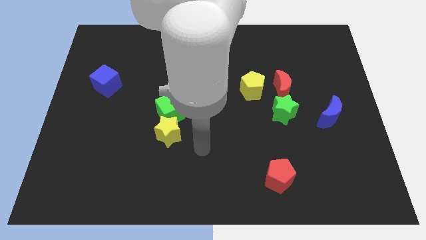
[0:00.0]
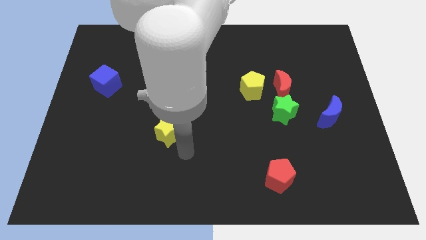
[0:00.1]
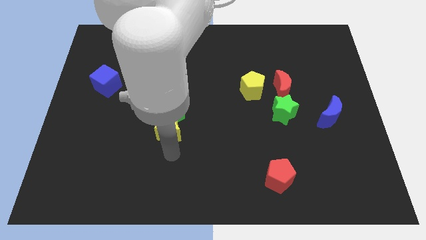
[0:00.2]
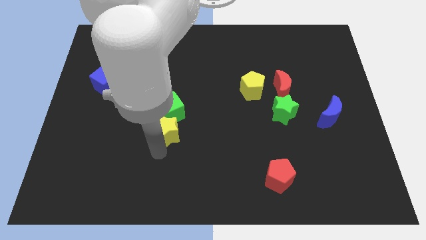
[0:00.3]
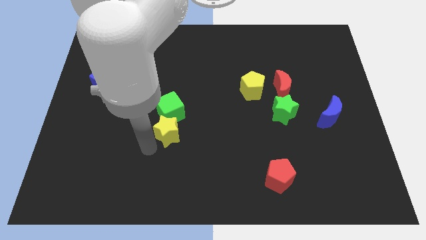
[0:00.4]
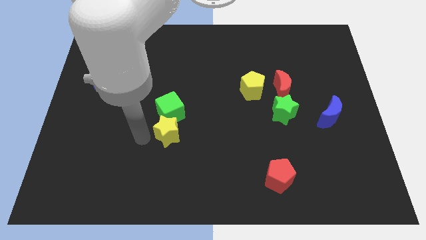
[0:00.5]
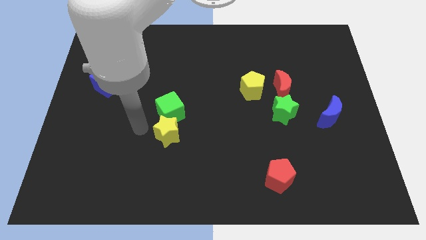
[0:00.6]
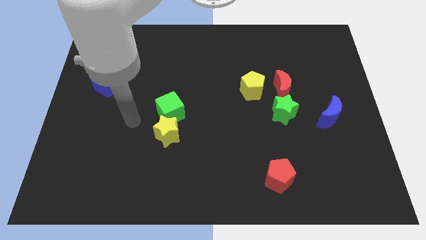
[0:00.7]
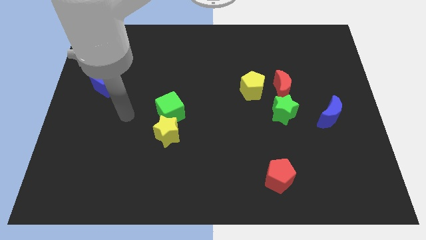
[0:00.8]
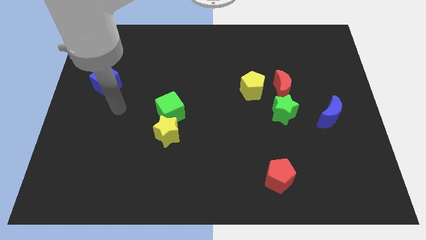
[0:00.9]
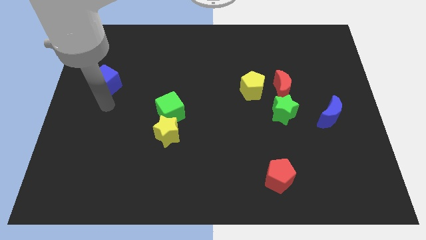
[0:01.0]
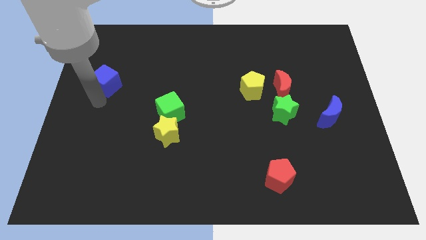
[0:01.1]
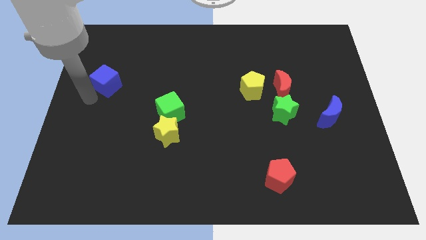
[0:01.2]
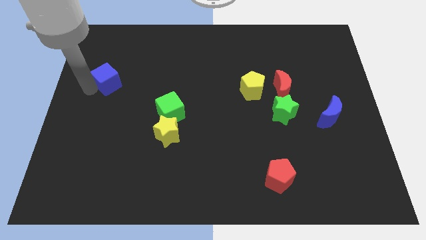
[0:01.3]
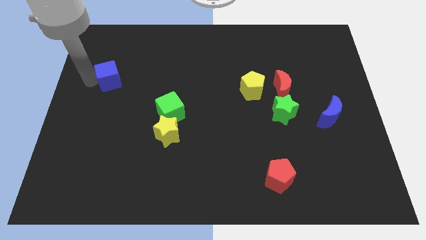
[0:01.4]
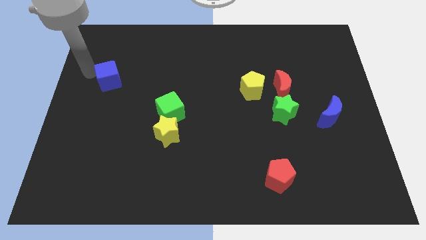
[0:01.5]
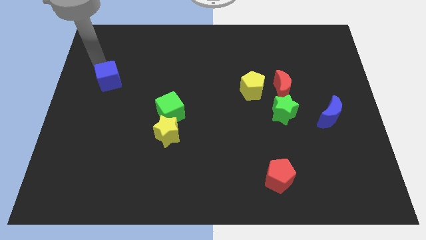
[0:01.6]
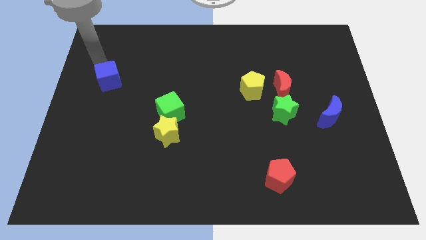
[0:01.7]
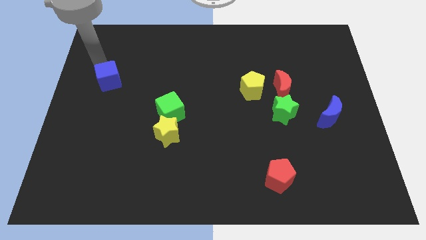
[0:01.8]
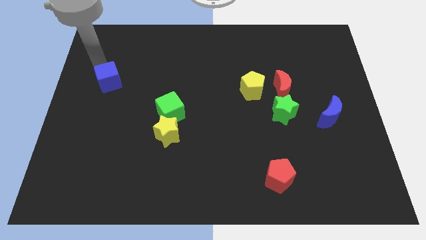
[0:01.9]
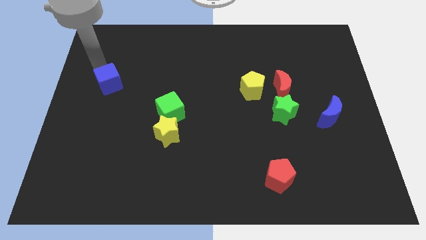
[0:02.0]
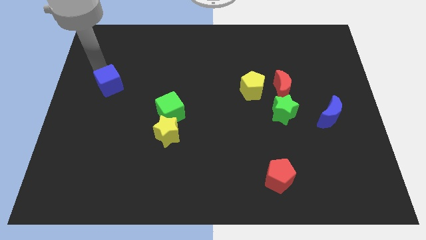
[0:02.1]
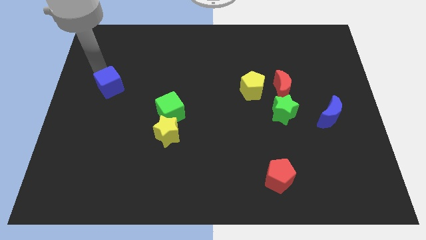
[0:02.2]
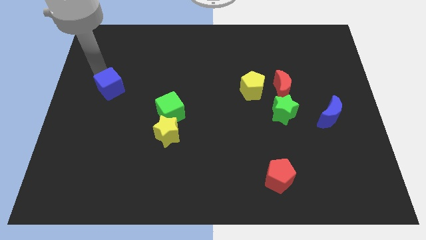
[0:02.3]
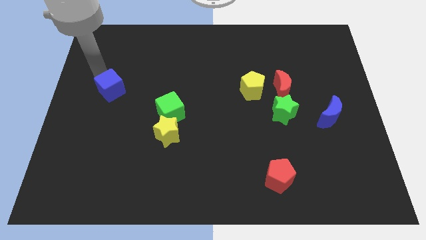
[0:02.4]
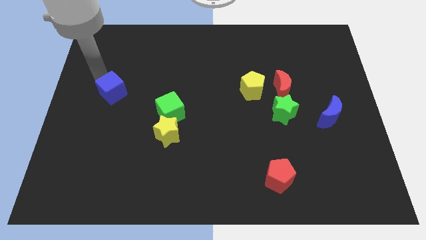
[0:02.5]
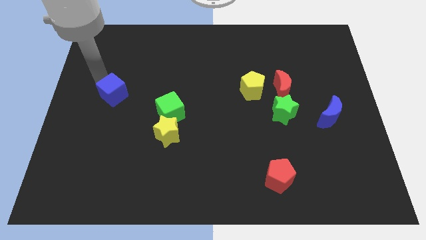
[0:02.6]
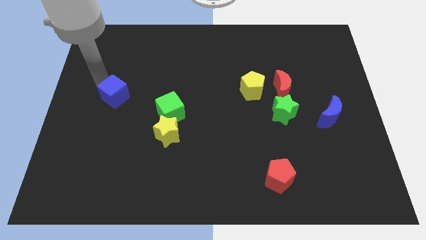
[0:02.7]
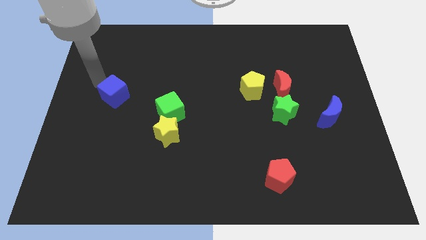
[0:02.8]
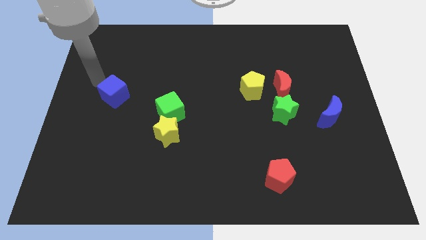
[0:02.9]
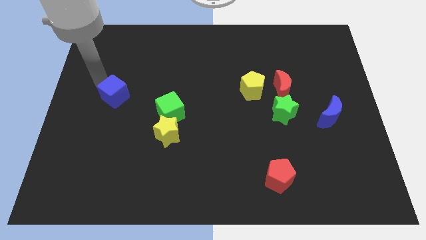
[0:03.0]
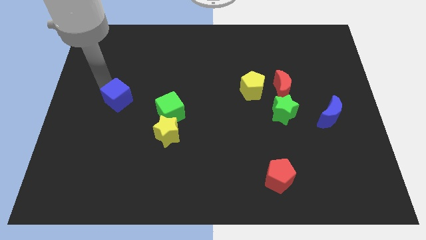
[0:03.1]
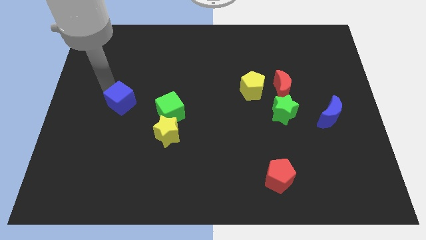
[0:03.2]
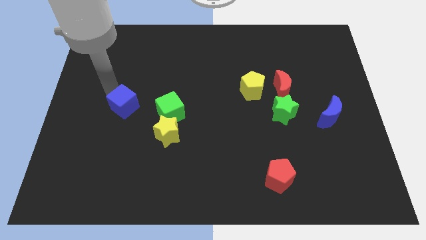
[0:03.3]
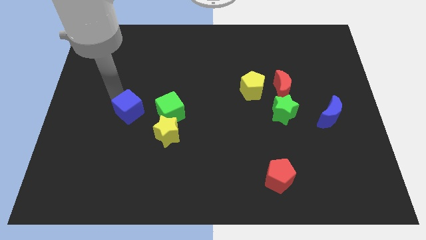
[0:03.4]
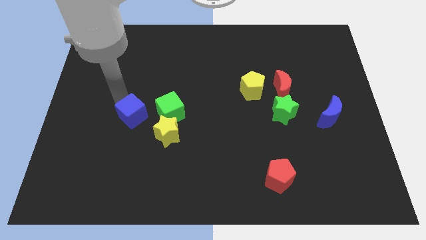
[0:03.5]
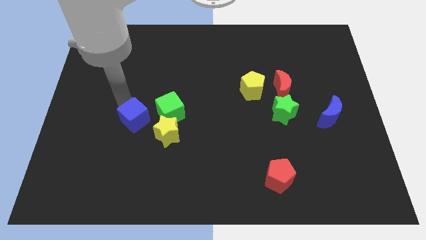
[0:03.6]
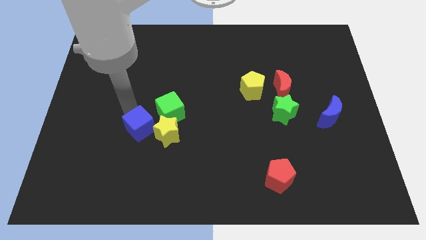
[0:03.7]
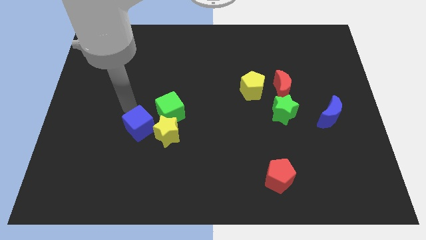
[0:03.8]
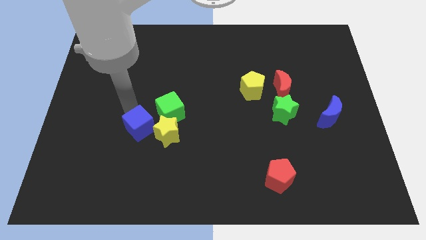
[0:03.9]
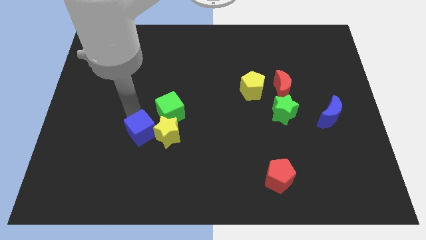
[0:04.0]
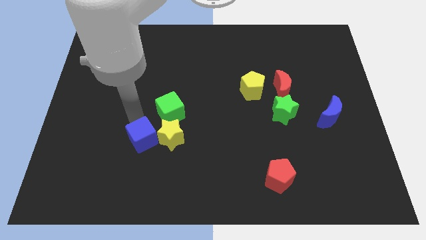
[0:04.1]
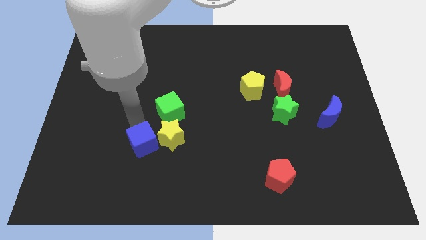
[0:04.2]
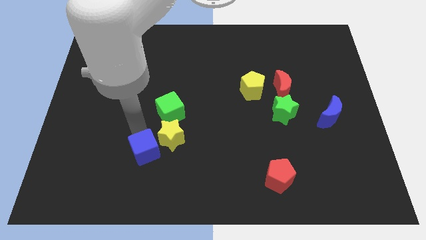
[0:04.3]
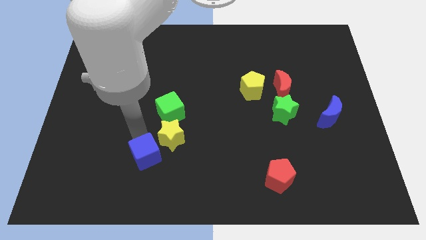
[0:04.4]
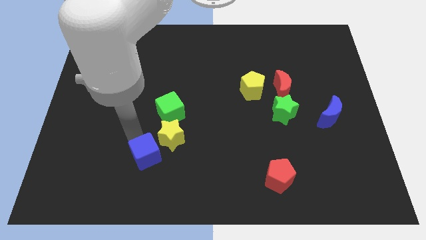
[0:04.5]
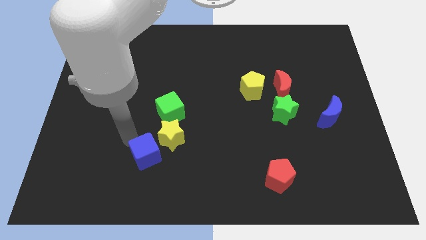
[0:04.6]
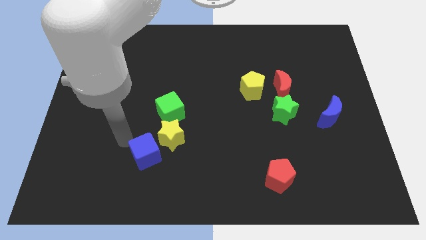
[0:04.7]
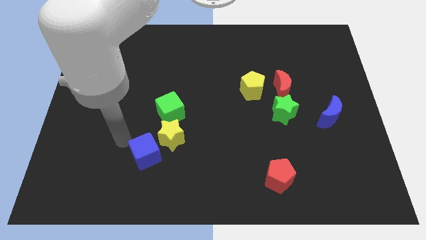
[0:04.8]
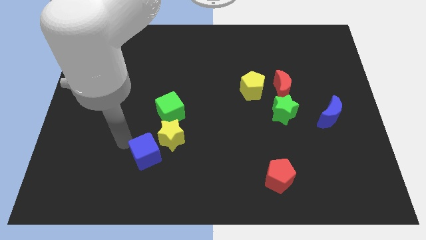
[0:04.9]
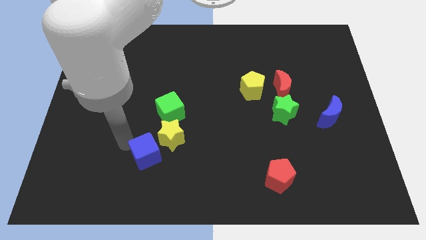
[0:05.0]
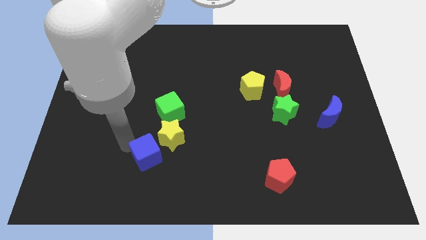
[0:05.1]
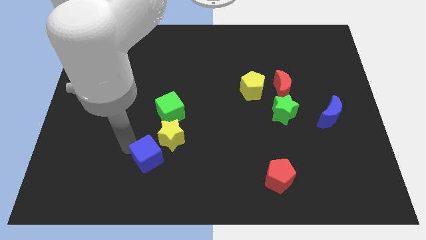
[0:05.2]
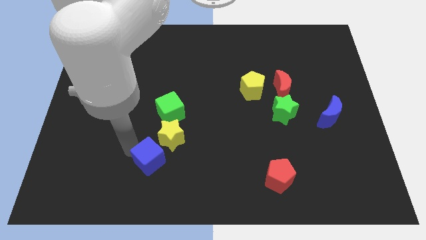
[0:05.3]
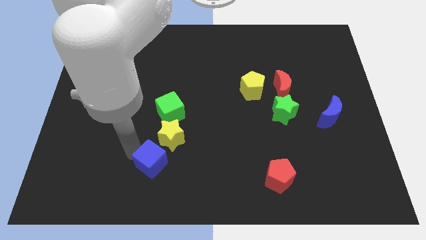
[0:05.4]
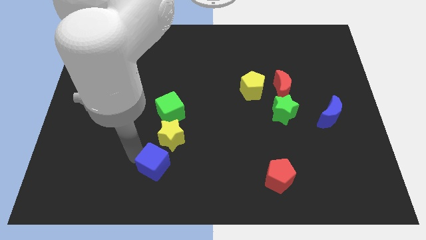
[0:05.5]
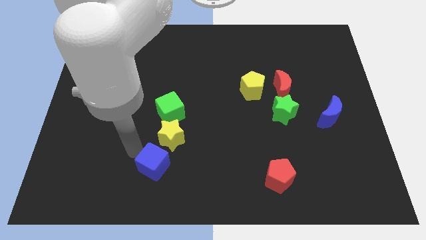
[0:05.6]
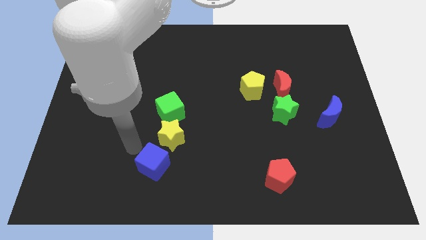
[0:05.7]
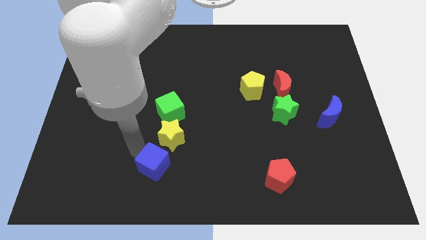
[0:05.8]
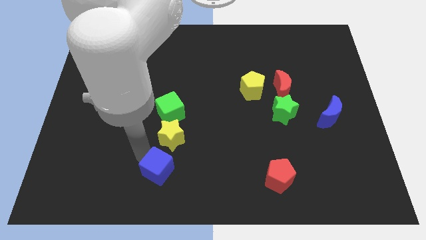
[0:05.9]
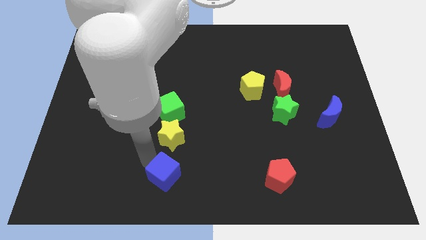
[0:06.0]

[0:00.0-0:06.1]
push the blue cube to the bottom
